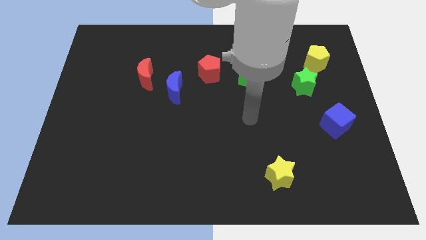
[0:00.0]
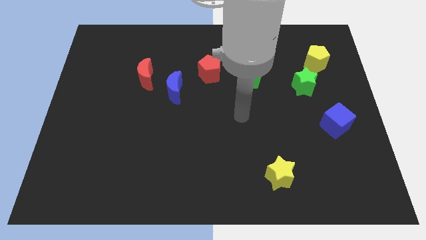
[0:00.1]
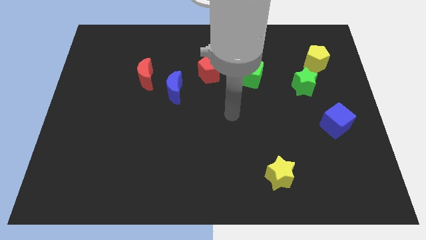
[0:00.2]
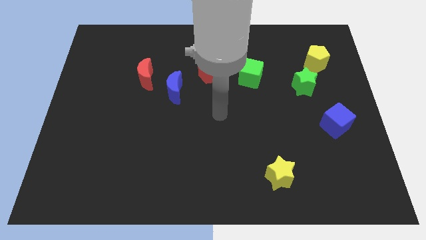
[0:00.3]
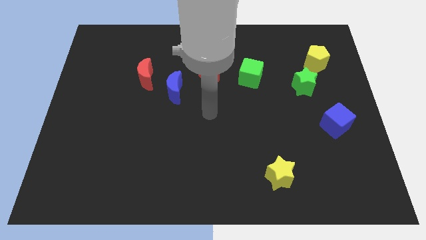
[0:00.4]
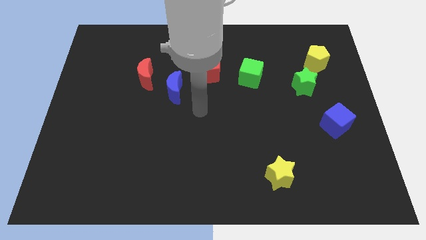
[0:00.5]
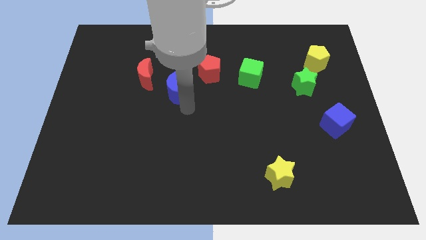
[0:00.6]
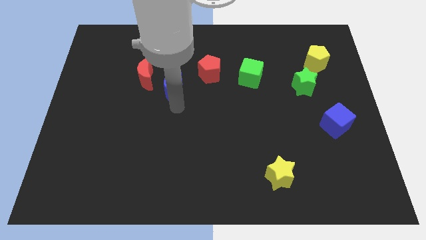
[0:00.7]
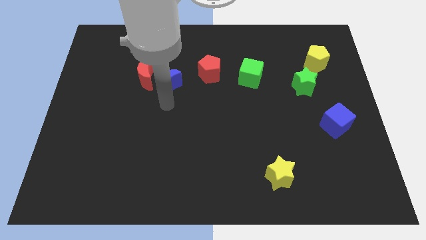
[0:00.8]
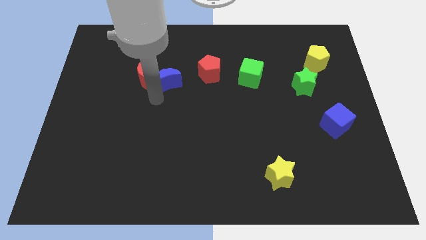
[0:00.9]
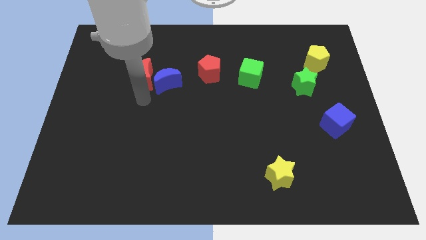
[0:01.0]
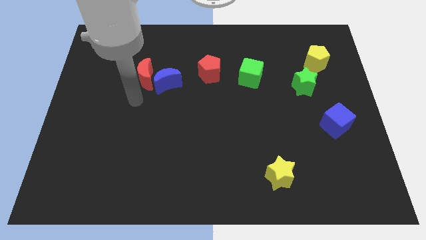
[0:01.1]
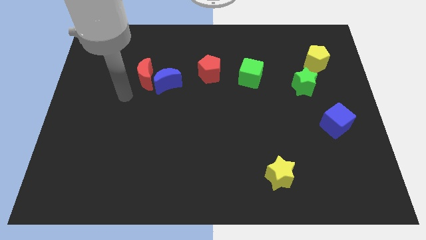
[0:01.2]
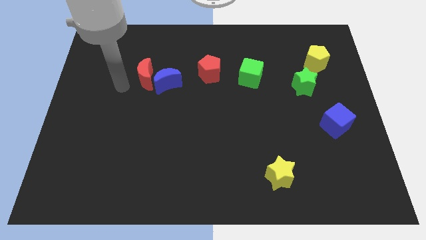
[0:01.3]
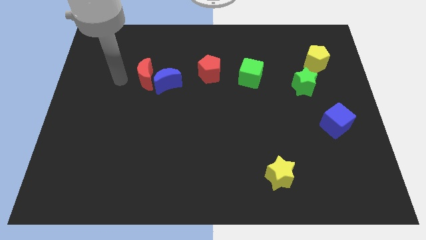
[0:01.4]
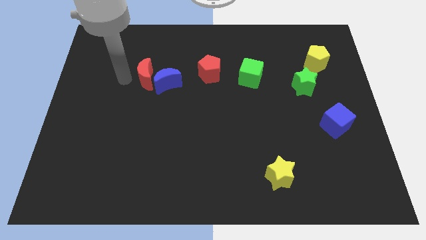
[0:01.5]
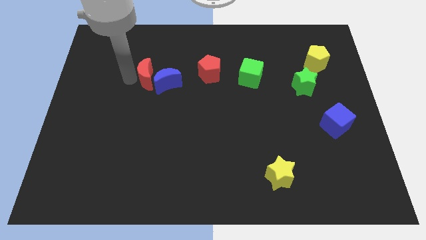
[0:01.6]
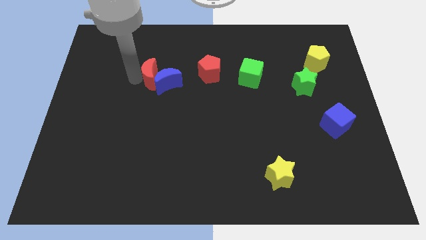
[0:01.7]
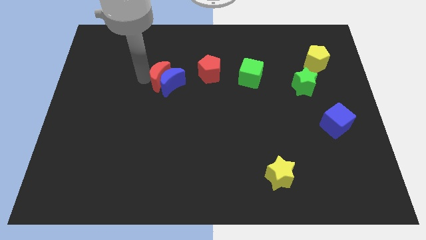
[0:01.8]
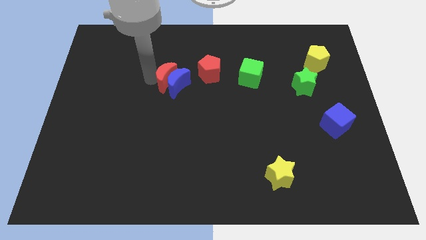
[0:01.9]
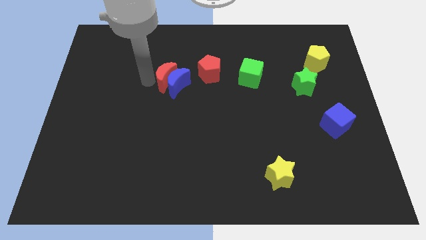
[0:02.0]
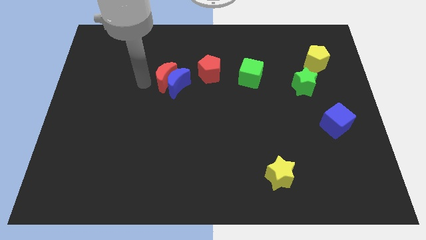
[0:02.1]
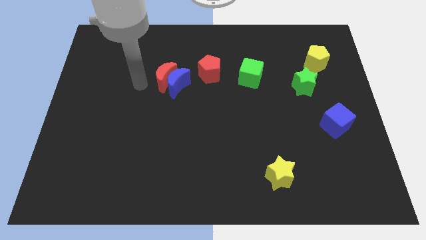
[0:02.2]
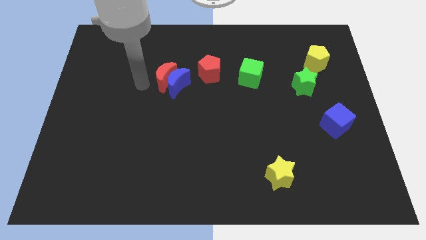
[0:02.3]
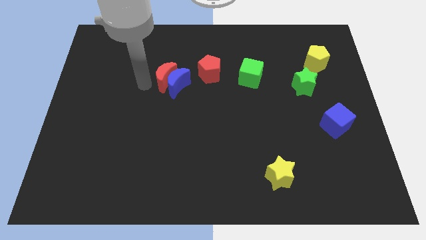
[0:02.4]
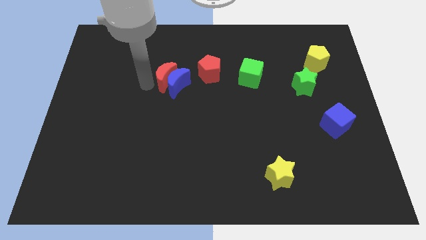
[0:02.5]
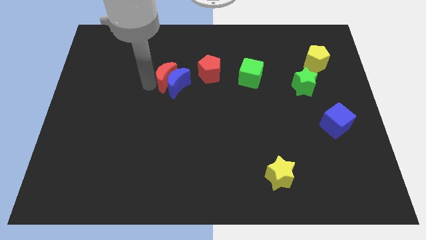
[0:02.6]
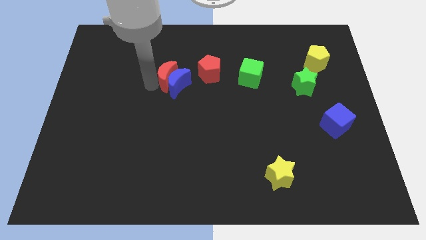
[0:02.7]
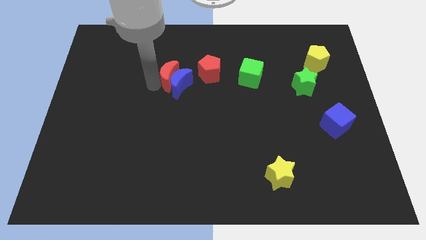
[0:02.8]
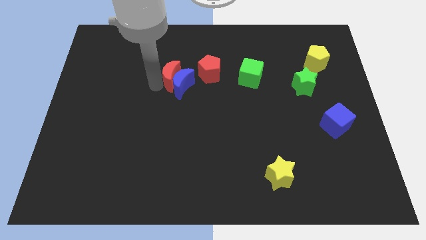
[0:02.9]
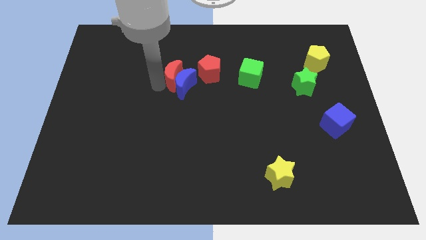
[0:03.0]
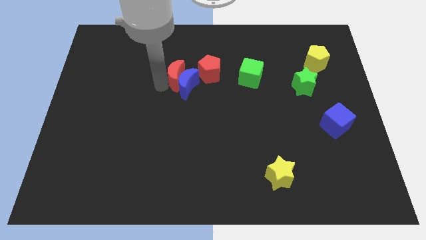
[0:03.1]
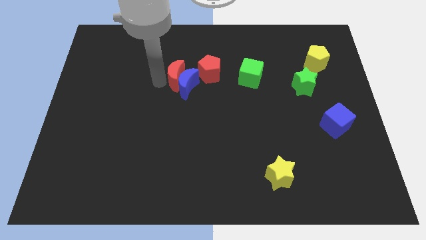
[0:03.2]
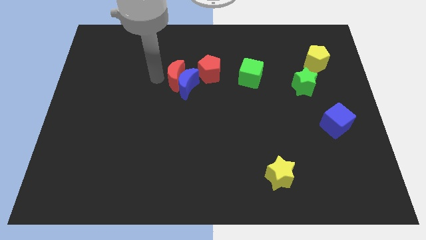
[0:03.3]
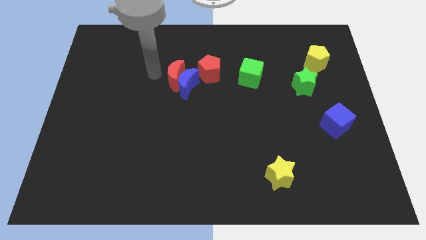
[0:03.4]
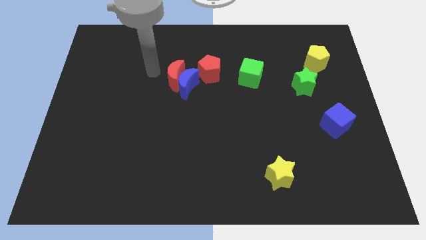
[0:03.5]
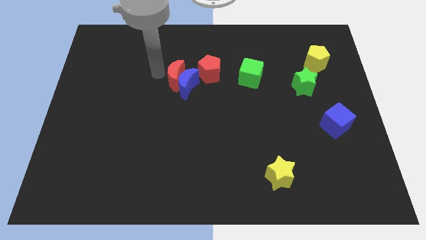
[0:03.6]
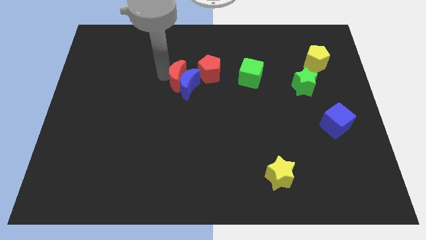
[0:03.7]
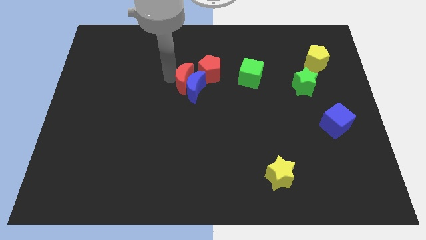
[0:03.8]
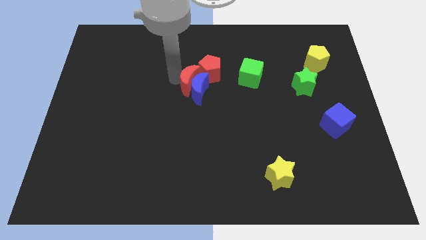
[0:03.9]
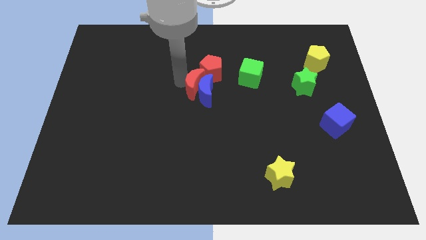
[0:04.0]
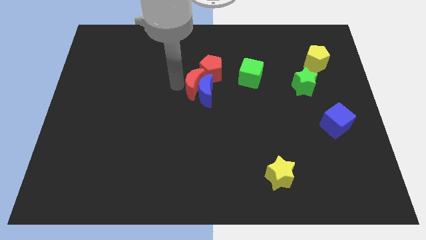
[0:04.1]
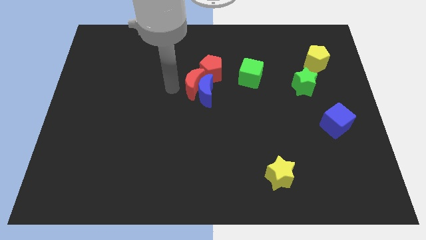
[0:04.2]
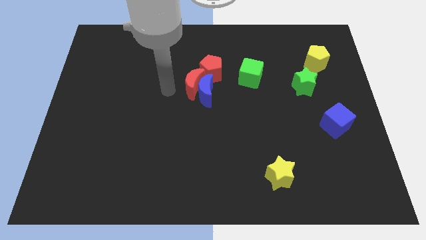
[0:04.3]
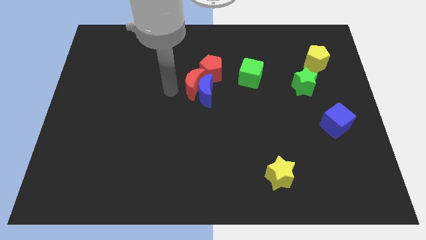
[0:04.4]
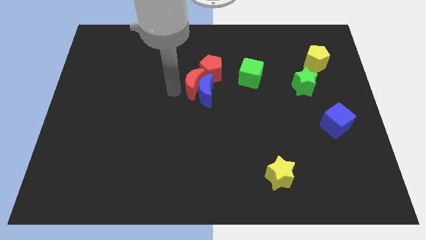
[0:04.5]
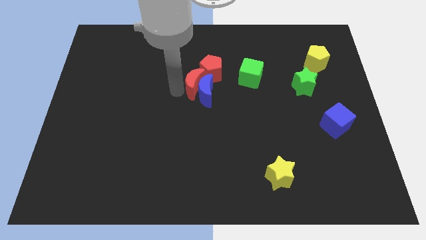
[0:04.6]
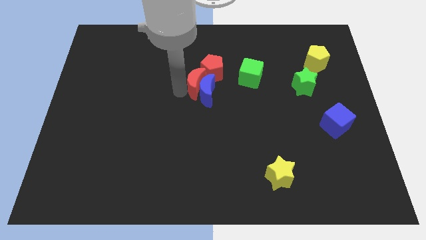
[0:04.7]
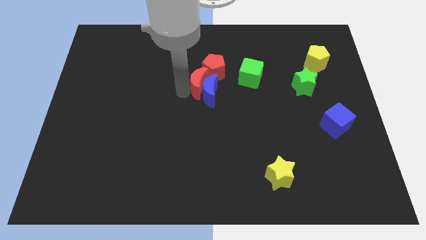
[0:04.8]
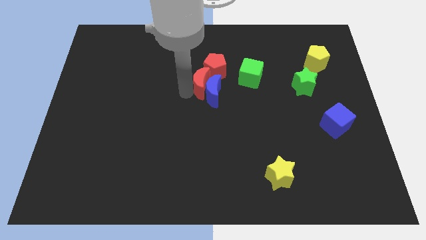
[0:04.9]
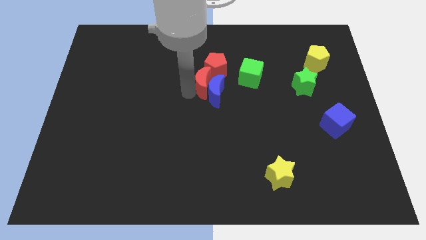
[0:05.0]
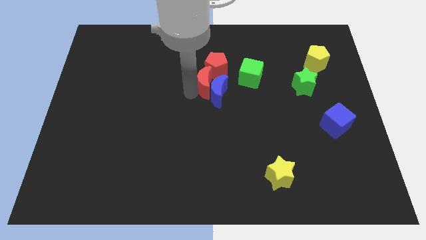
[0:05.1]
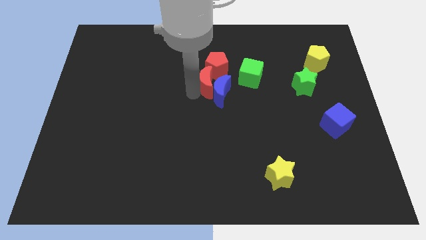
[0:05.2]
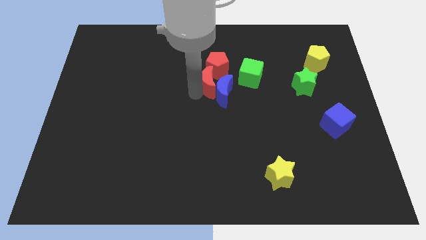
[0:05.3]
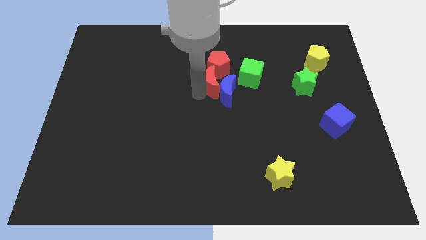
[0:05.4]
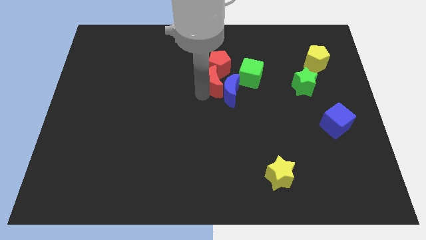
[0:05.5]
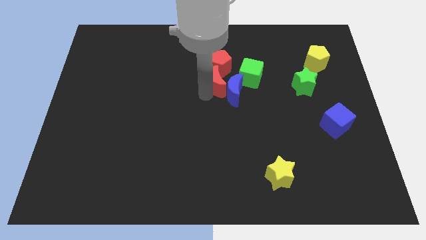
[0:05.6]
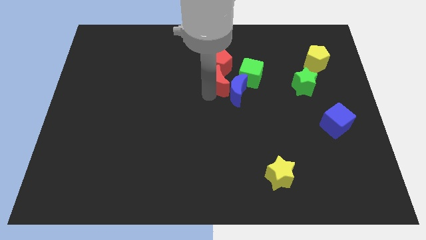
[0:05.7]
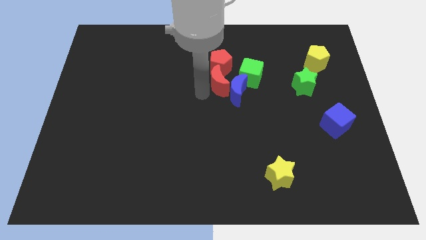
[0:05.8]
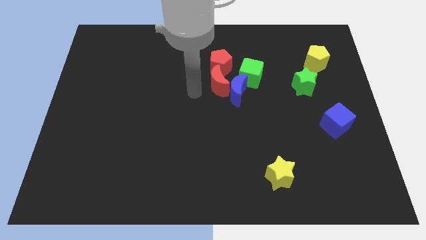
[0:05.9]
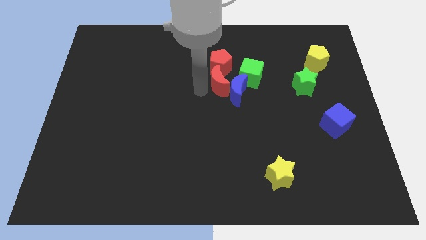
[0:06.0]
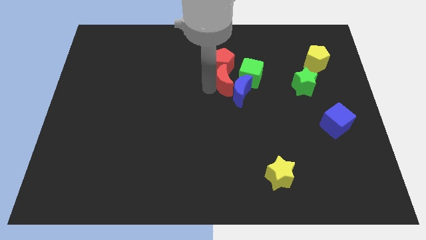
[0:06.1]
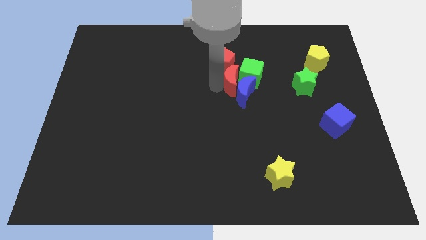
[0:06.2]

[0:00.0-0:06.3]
slide the red moon close to the green cube
